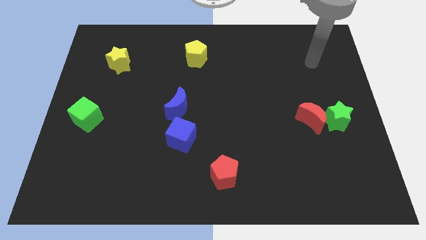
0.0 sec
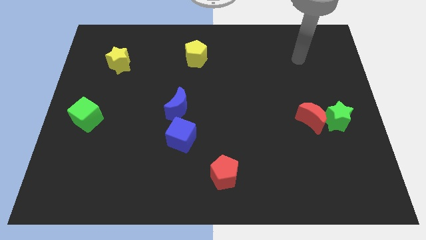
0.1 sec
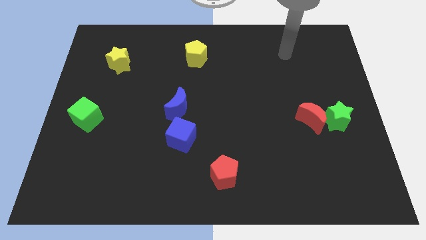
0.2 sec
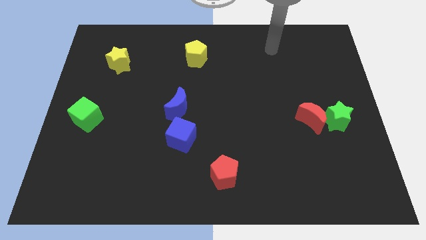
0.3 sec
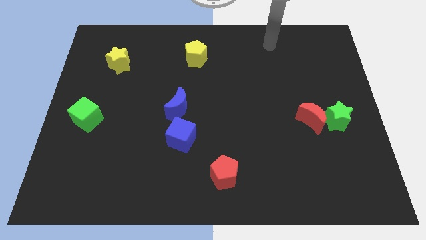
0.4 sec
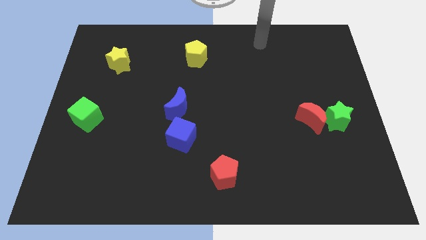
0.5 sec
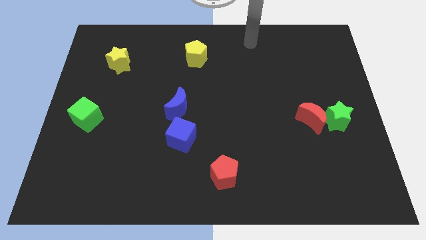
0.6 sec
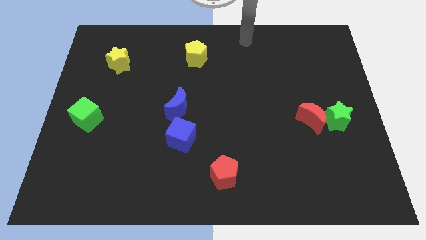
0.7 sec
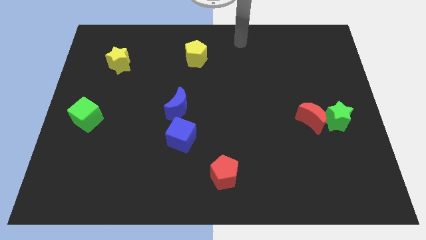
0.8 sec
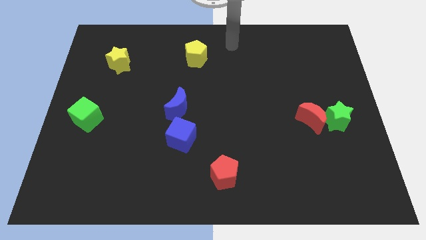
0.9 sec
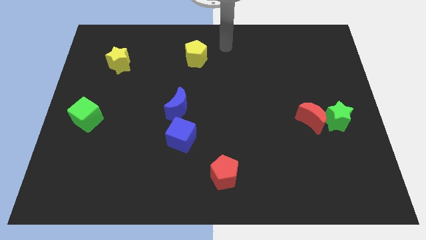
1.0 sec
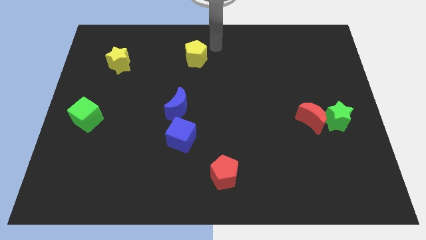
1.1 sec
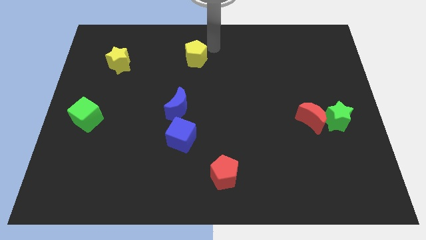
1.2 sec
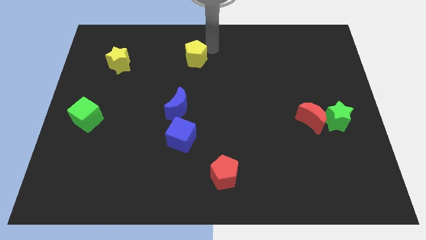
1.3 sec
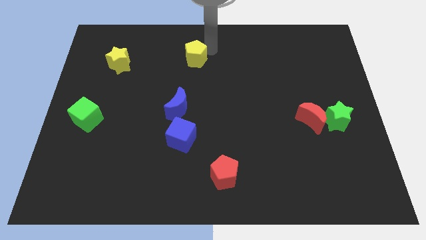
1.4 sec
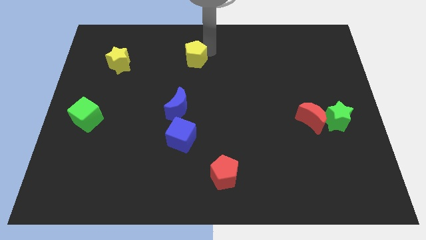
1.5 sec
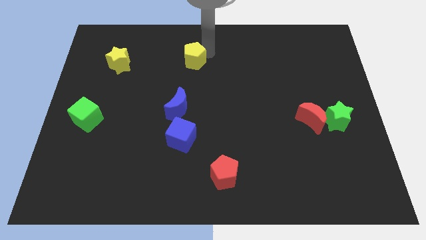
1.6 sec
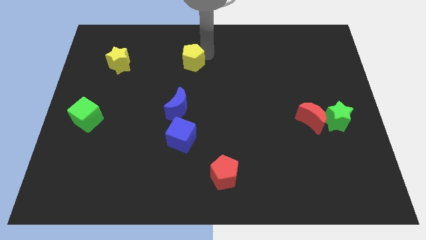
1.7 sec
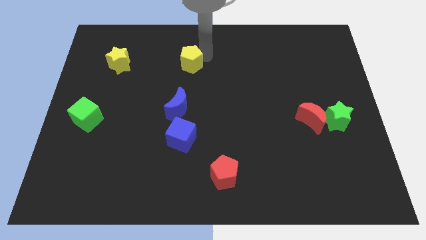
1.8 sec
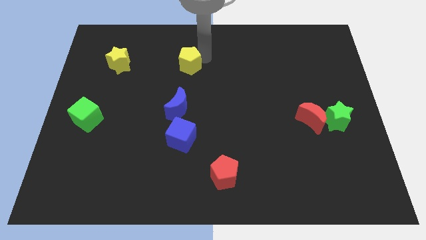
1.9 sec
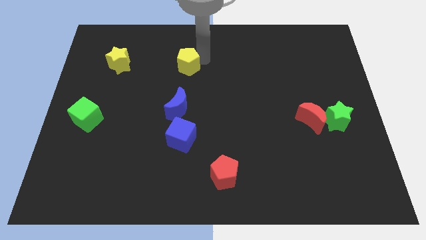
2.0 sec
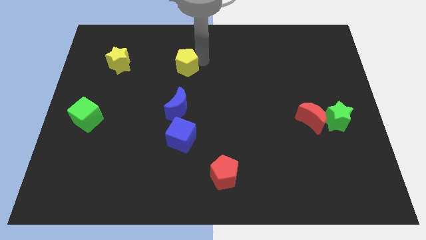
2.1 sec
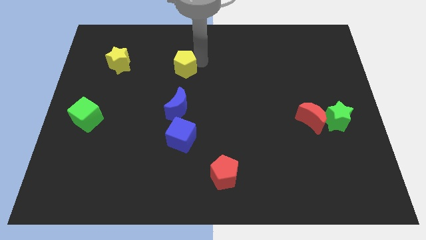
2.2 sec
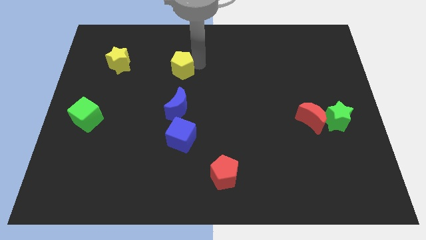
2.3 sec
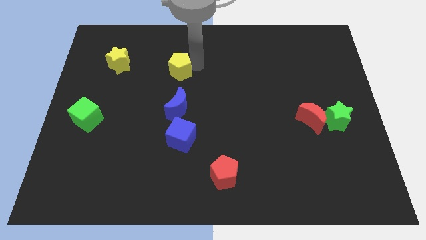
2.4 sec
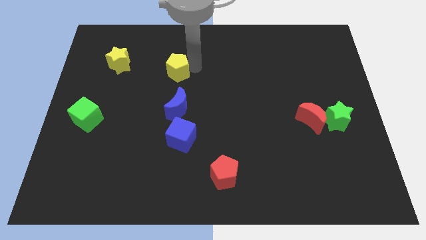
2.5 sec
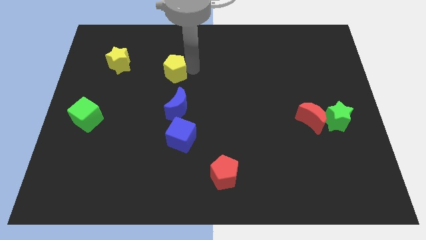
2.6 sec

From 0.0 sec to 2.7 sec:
slightly move the yellow pentagon downwards and then left

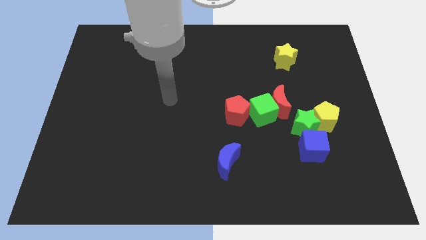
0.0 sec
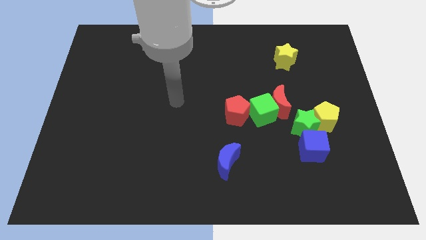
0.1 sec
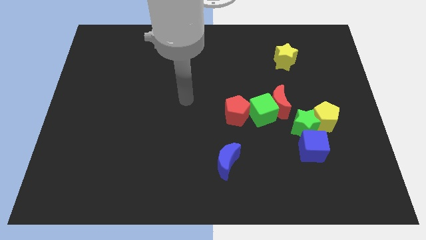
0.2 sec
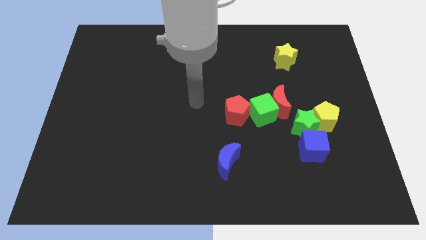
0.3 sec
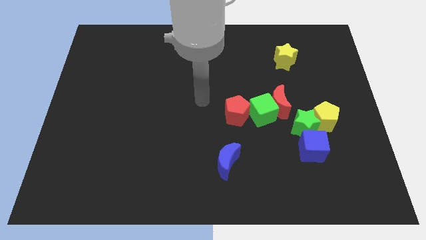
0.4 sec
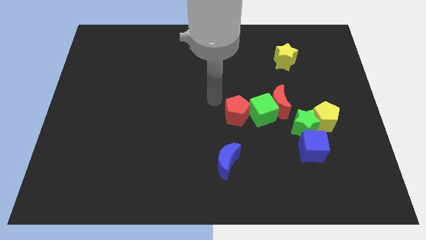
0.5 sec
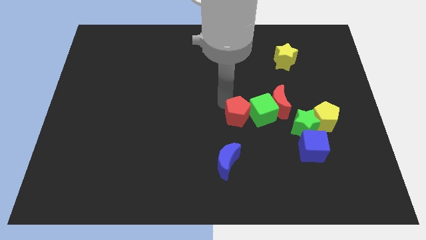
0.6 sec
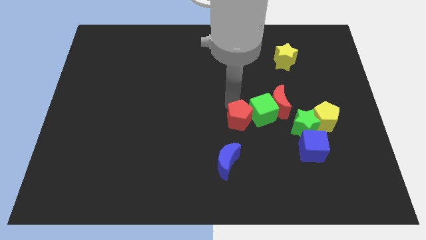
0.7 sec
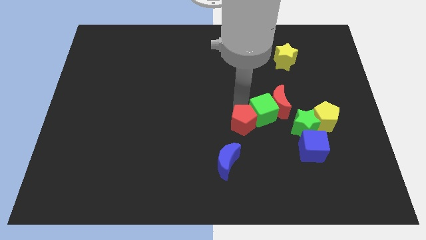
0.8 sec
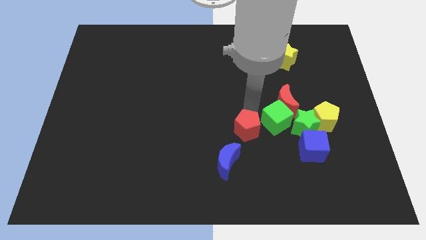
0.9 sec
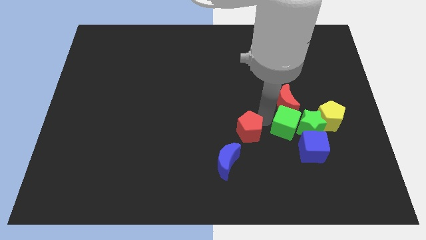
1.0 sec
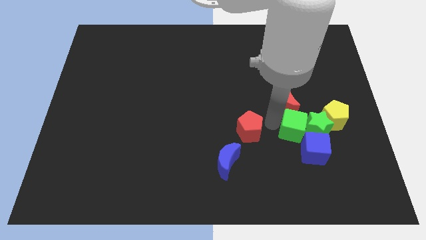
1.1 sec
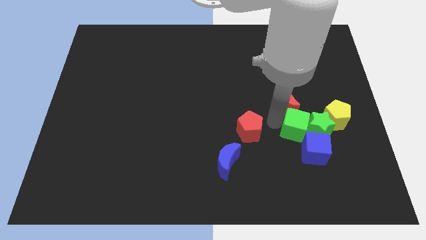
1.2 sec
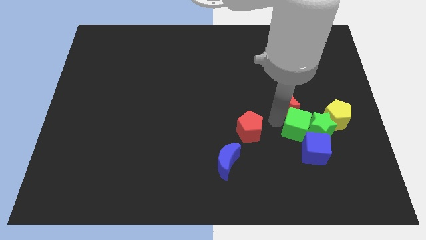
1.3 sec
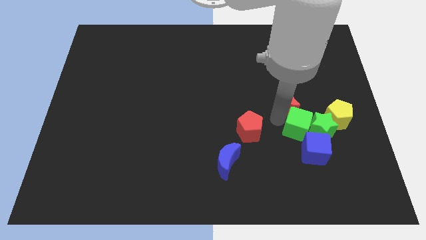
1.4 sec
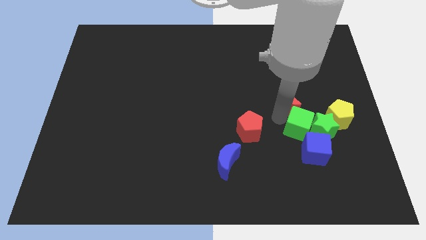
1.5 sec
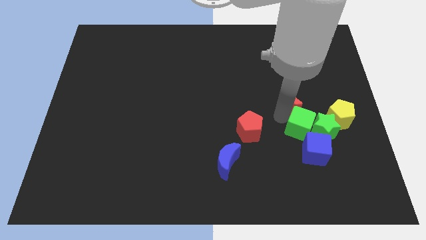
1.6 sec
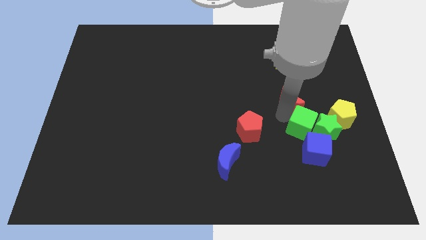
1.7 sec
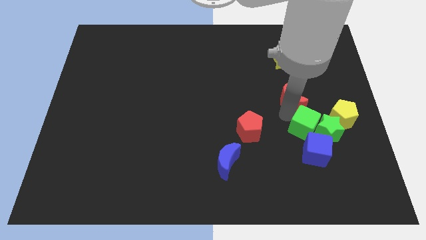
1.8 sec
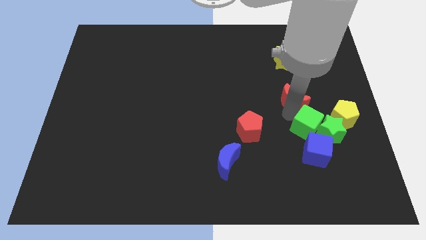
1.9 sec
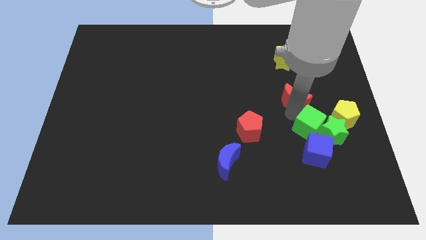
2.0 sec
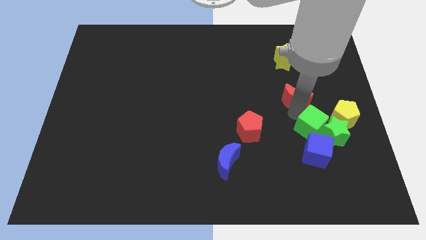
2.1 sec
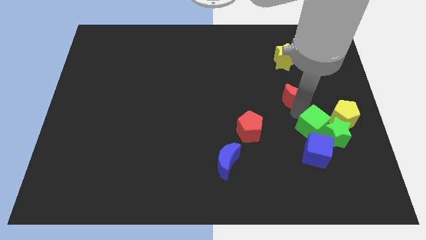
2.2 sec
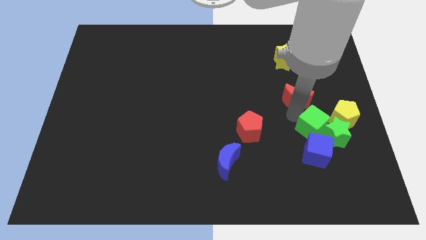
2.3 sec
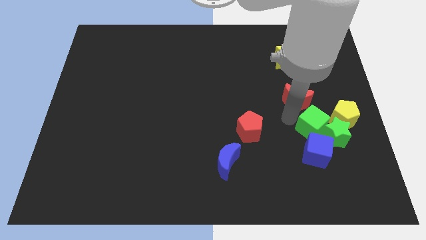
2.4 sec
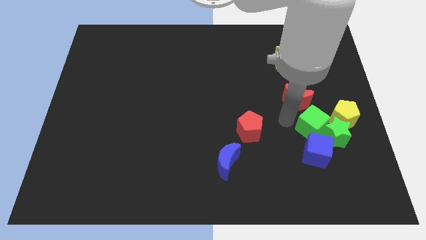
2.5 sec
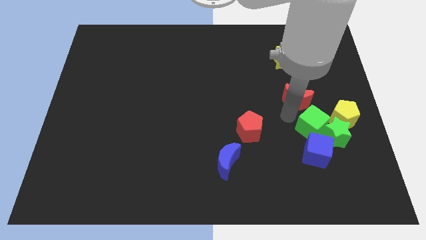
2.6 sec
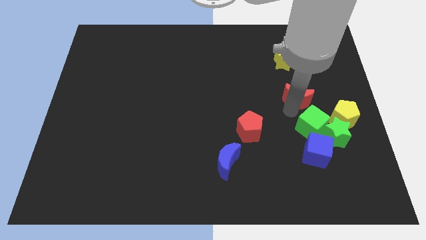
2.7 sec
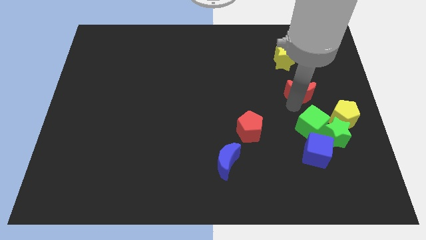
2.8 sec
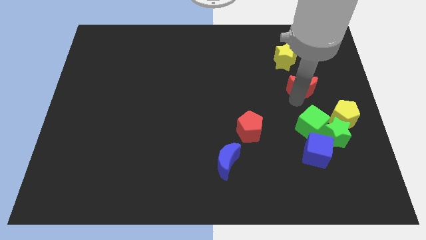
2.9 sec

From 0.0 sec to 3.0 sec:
move the red moon upwards and then to the right a little

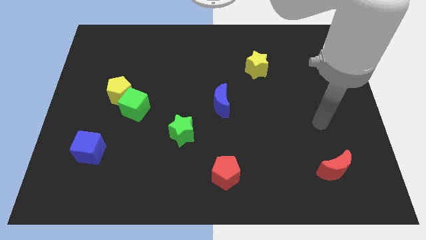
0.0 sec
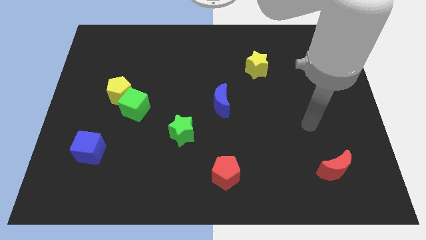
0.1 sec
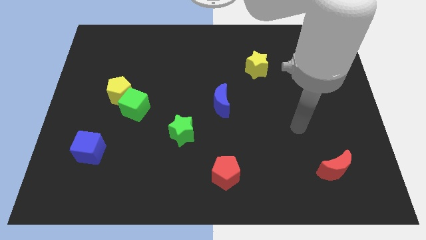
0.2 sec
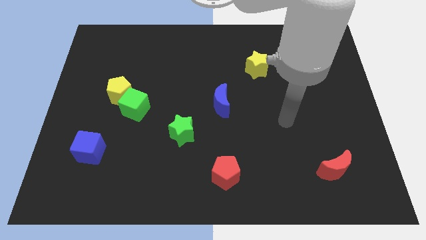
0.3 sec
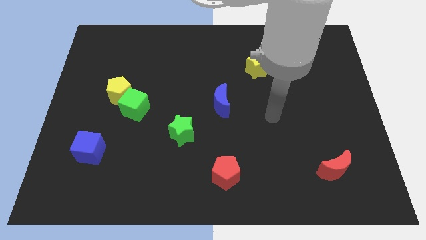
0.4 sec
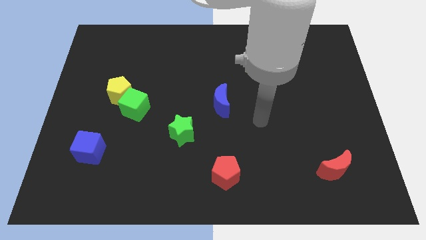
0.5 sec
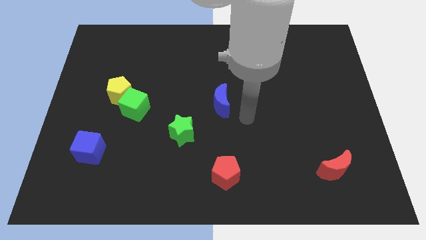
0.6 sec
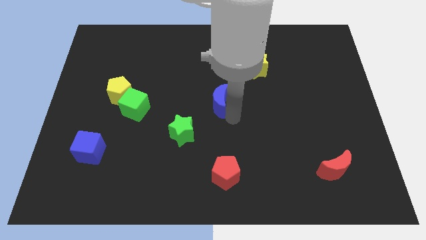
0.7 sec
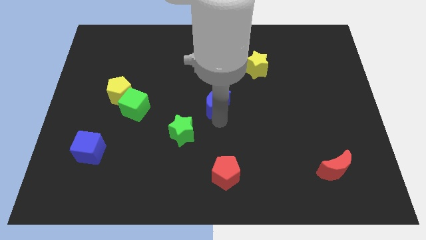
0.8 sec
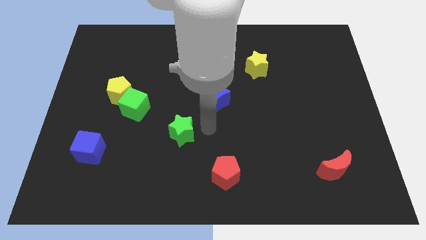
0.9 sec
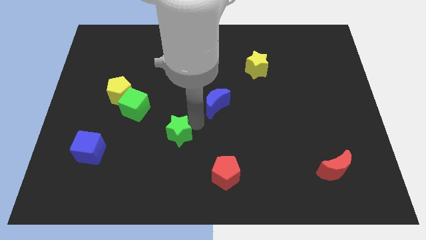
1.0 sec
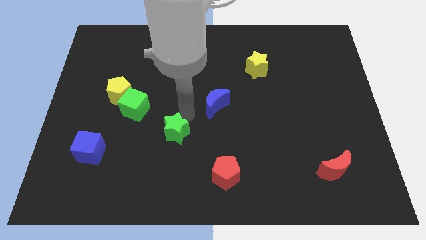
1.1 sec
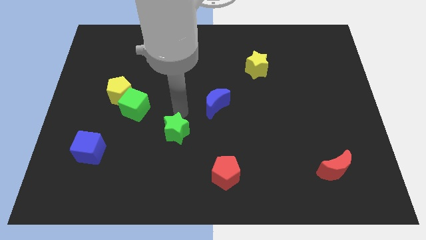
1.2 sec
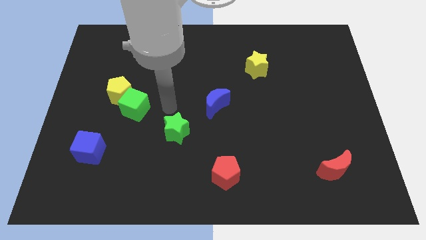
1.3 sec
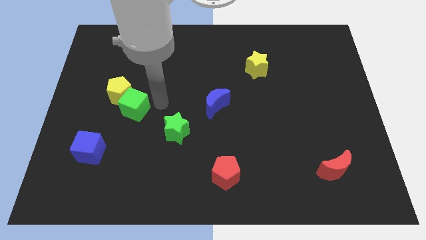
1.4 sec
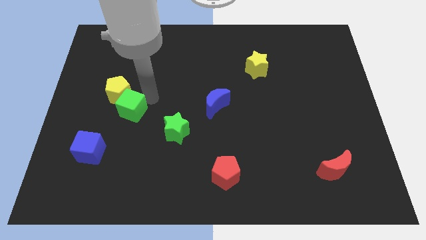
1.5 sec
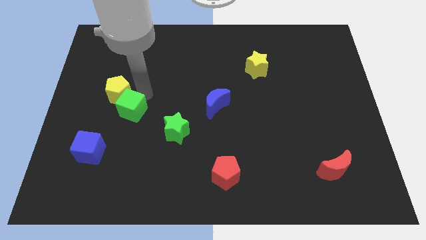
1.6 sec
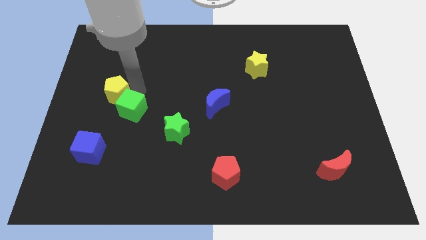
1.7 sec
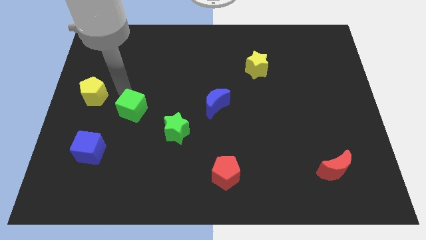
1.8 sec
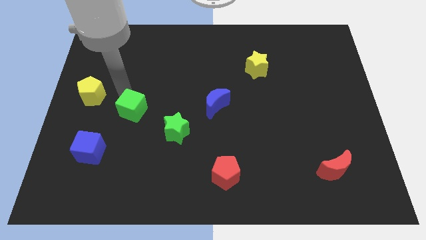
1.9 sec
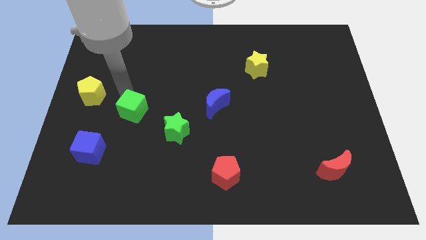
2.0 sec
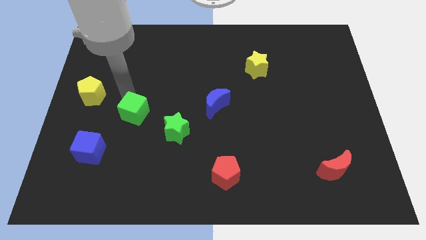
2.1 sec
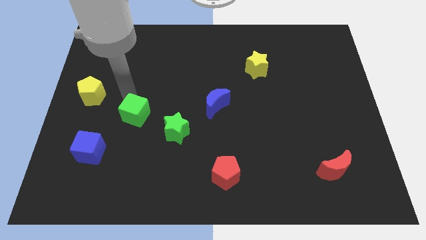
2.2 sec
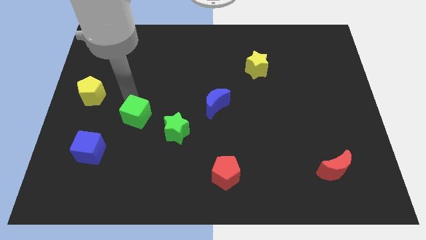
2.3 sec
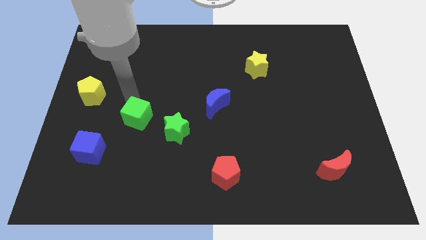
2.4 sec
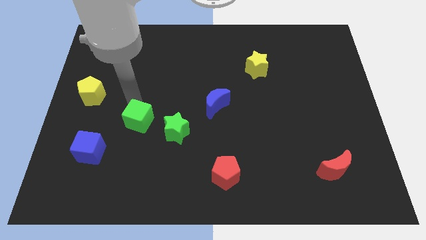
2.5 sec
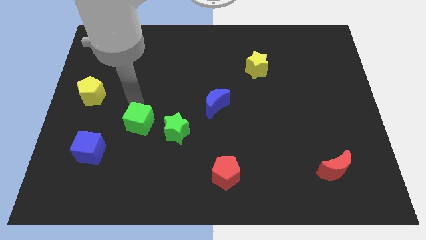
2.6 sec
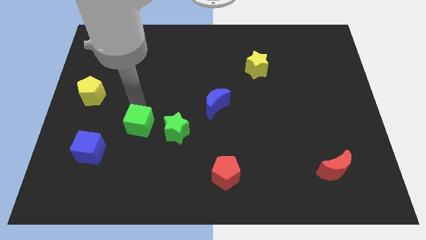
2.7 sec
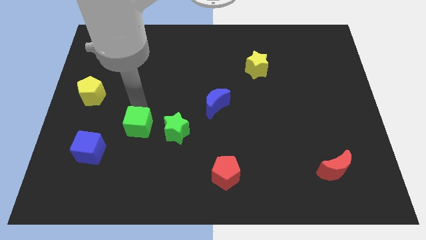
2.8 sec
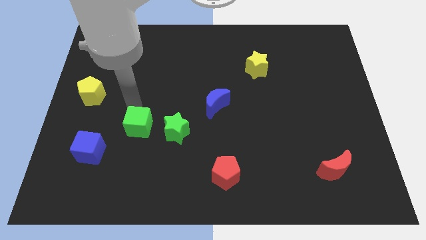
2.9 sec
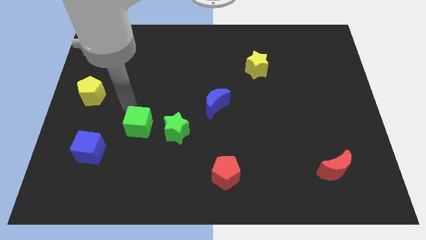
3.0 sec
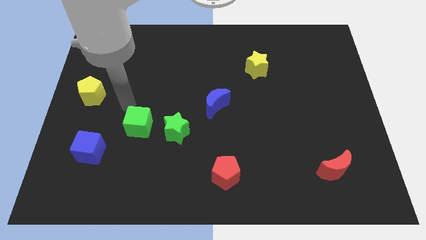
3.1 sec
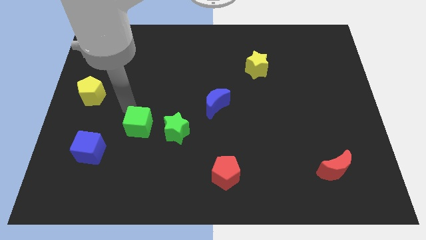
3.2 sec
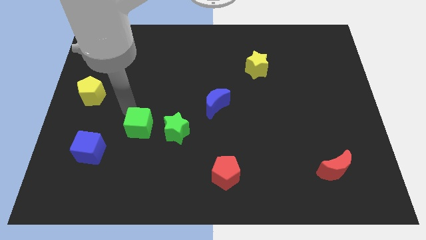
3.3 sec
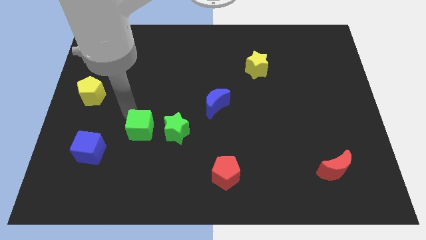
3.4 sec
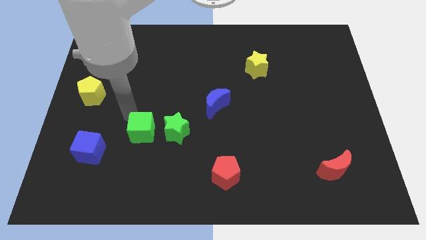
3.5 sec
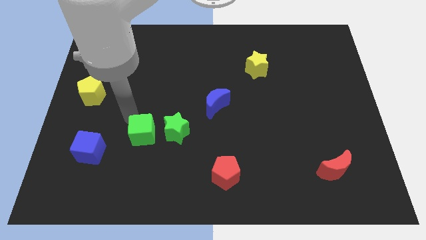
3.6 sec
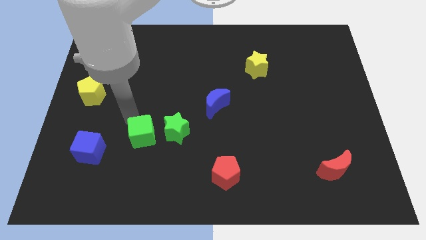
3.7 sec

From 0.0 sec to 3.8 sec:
slide the green cube diagonally downwards and right a bit
